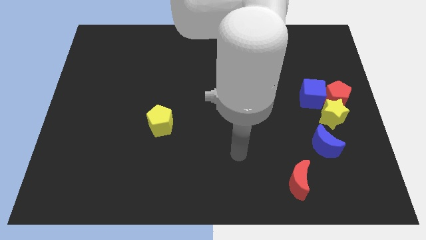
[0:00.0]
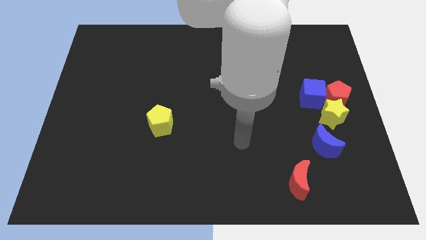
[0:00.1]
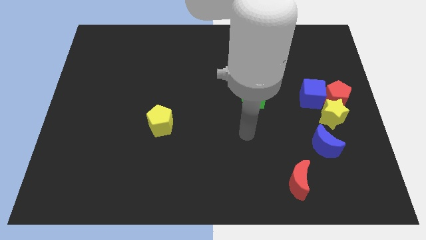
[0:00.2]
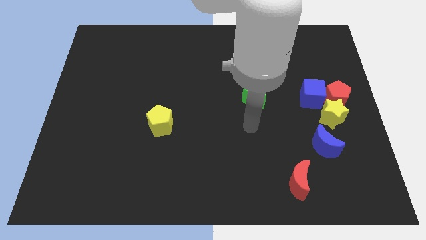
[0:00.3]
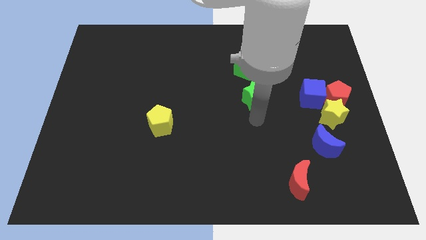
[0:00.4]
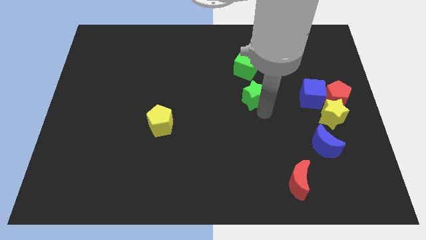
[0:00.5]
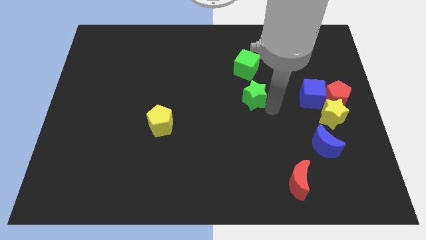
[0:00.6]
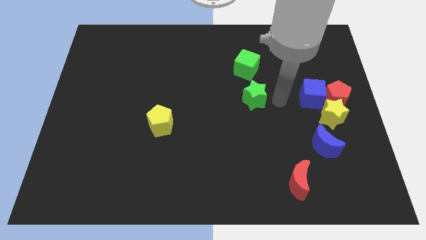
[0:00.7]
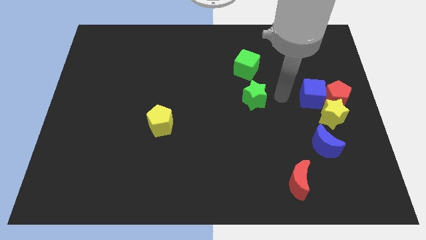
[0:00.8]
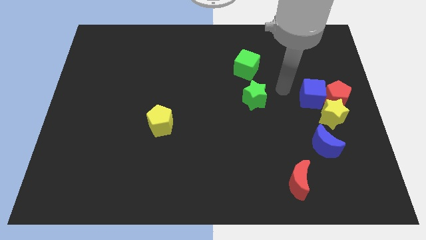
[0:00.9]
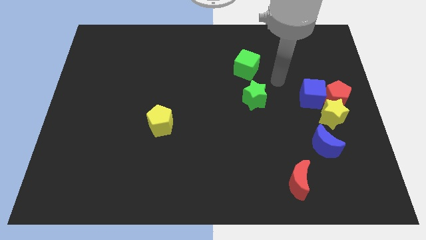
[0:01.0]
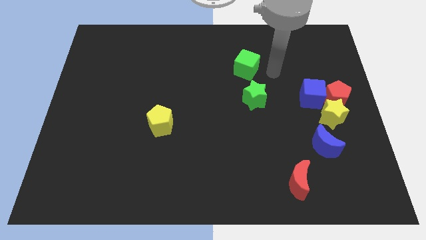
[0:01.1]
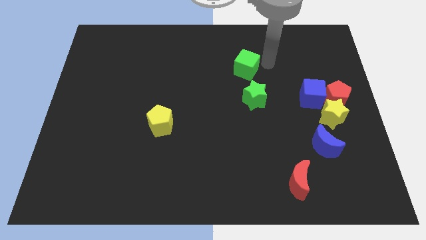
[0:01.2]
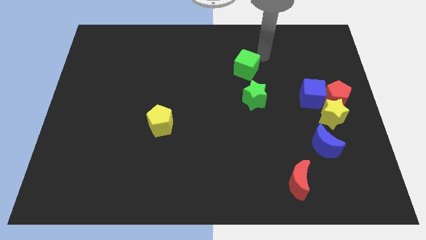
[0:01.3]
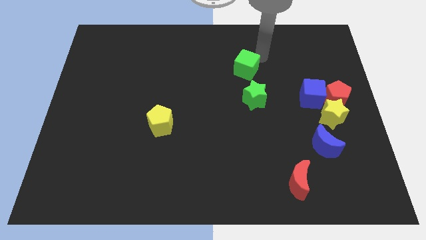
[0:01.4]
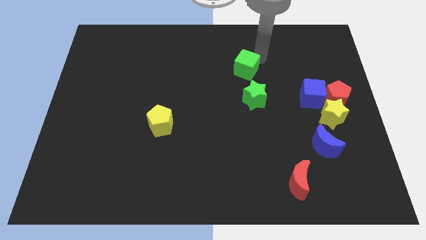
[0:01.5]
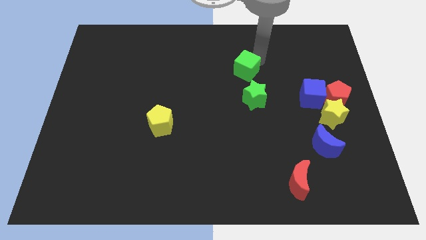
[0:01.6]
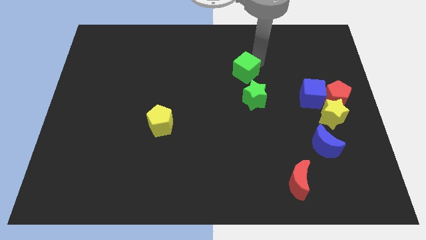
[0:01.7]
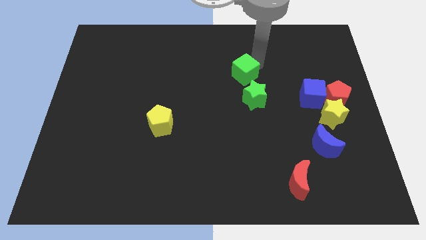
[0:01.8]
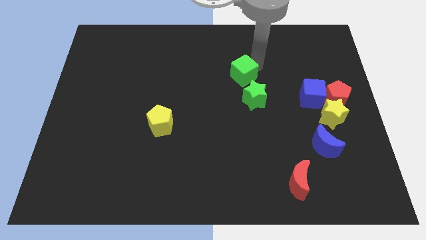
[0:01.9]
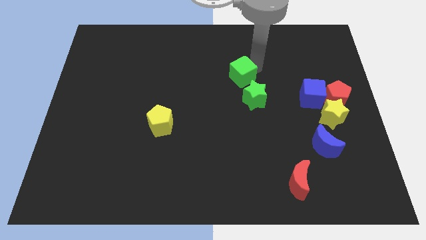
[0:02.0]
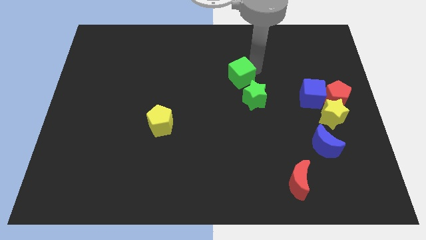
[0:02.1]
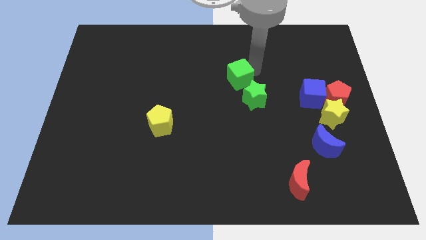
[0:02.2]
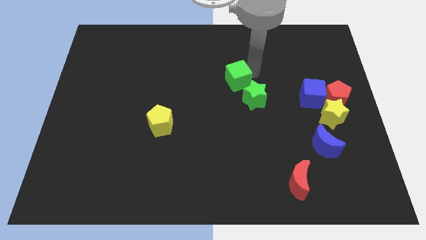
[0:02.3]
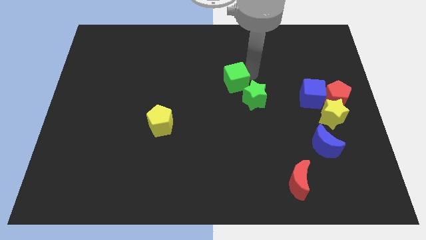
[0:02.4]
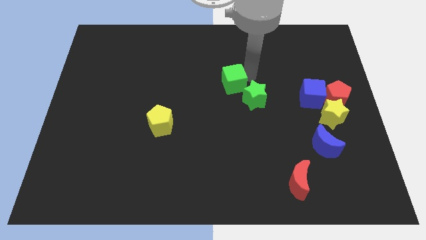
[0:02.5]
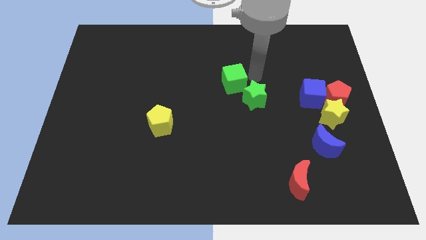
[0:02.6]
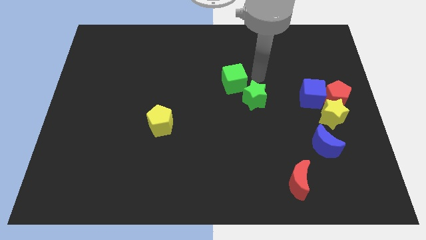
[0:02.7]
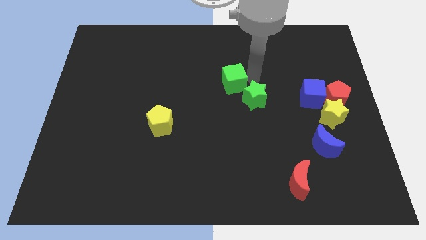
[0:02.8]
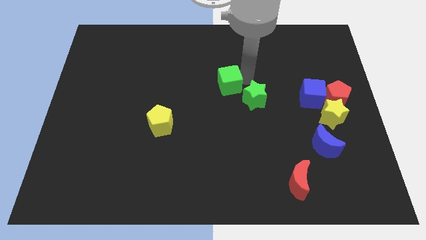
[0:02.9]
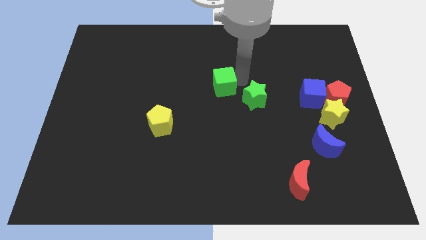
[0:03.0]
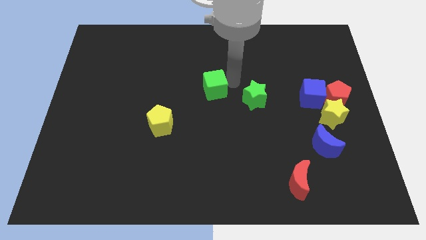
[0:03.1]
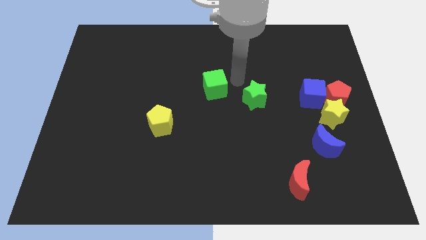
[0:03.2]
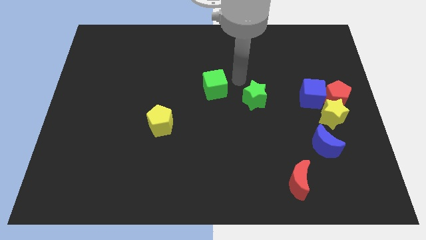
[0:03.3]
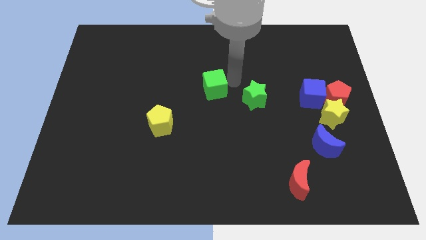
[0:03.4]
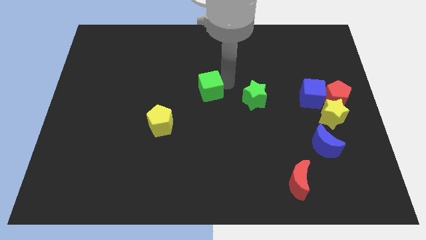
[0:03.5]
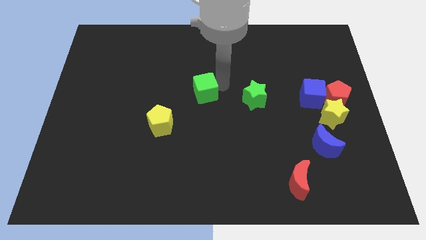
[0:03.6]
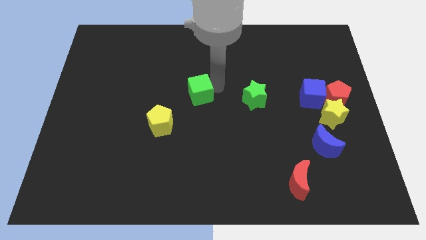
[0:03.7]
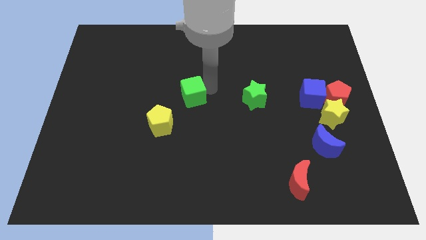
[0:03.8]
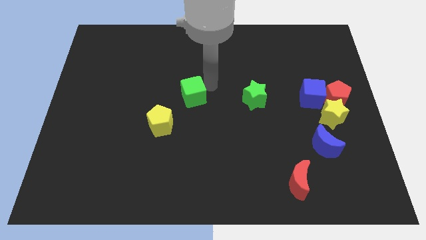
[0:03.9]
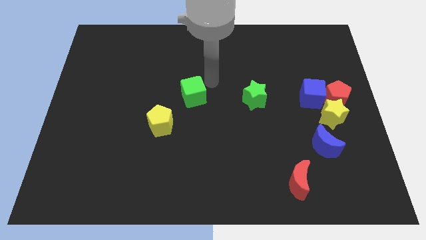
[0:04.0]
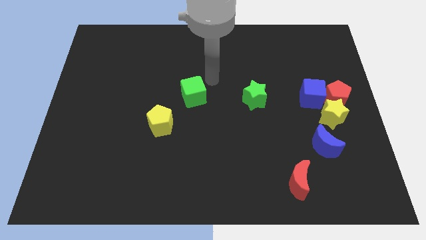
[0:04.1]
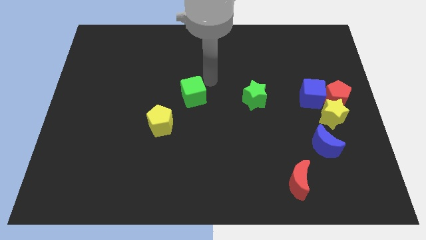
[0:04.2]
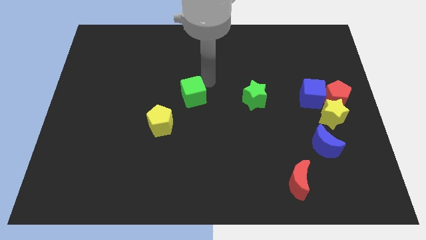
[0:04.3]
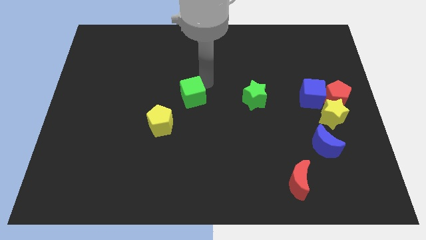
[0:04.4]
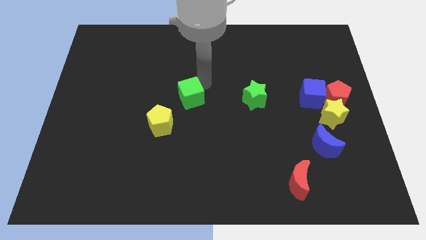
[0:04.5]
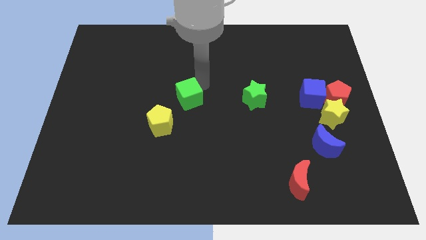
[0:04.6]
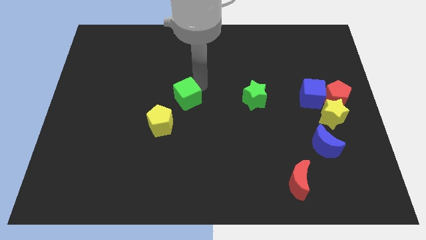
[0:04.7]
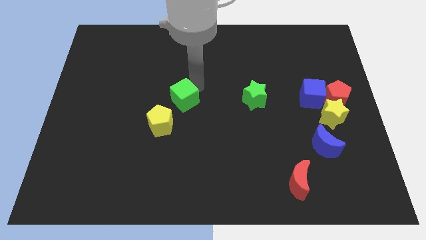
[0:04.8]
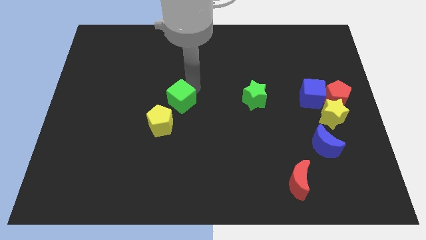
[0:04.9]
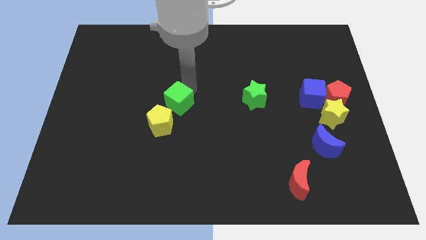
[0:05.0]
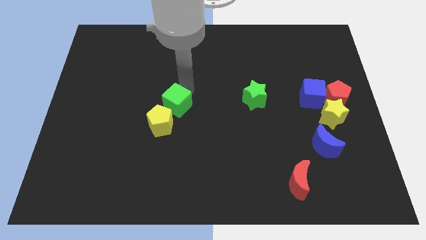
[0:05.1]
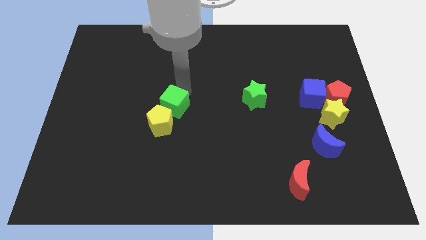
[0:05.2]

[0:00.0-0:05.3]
push the green cube to the yellow pentagon

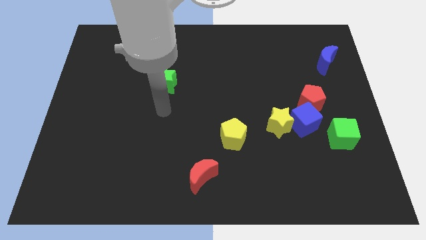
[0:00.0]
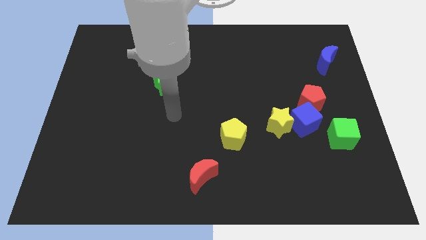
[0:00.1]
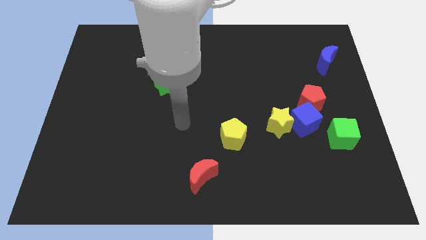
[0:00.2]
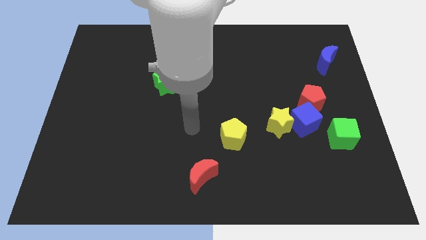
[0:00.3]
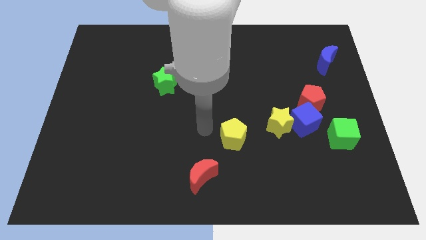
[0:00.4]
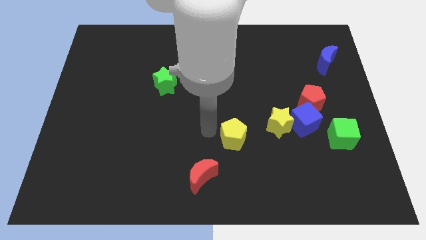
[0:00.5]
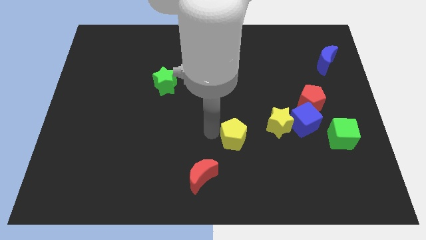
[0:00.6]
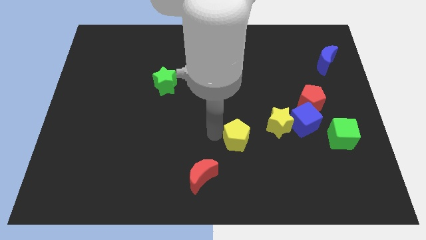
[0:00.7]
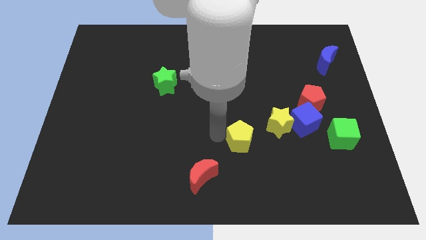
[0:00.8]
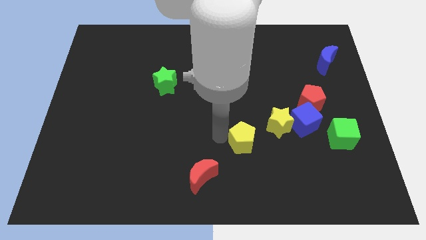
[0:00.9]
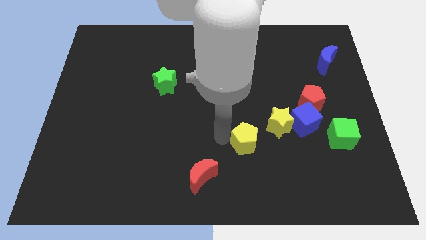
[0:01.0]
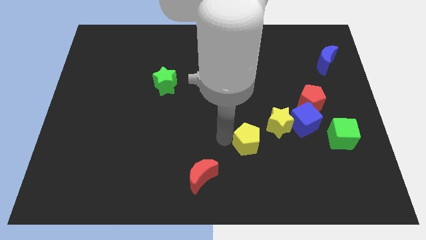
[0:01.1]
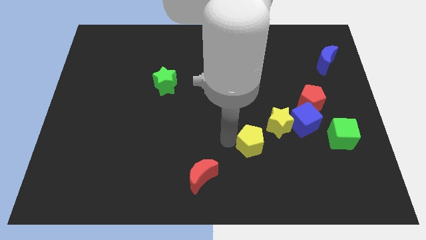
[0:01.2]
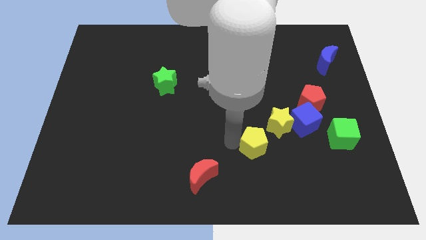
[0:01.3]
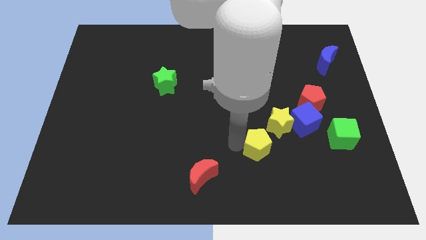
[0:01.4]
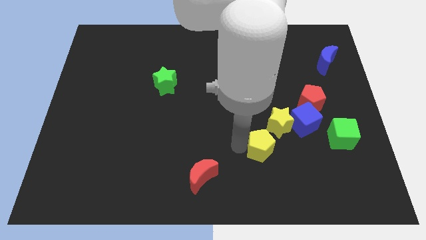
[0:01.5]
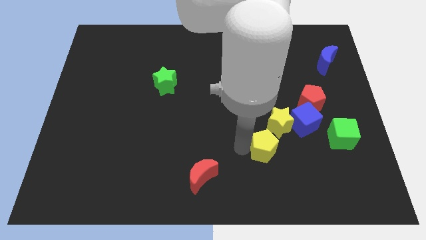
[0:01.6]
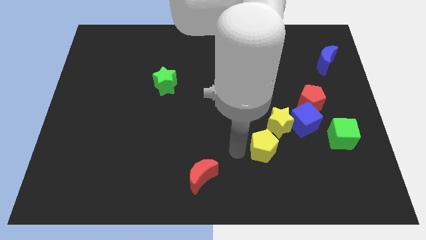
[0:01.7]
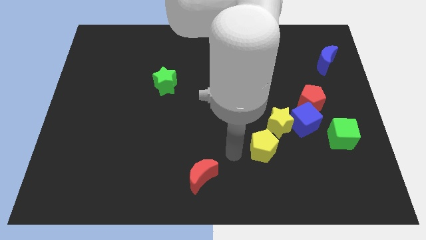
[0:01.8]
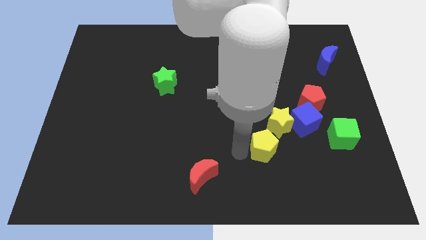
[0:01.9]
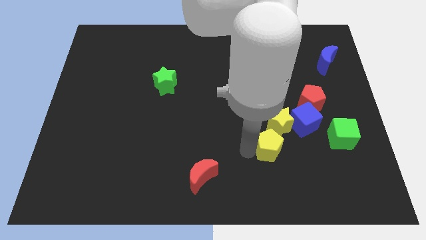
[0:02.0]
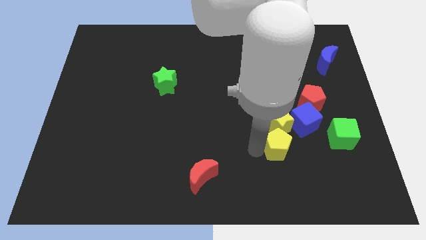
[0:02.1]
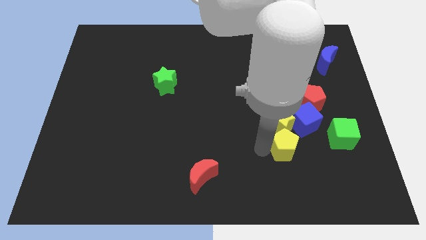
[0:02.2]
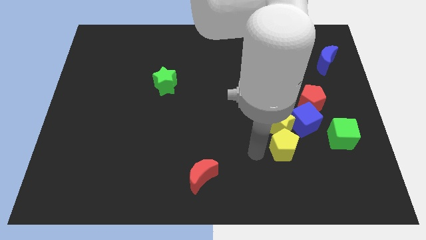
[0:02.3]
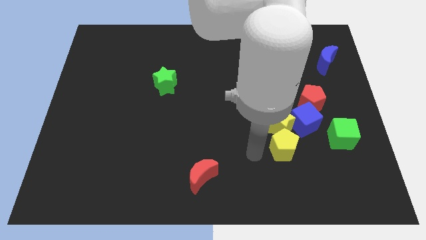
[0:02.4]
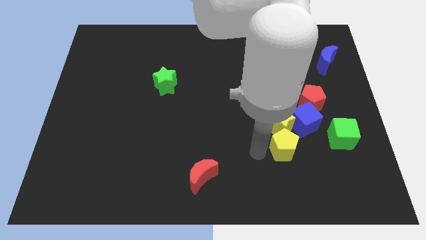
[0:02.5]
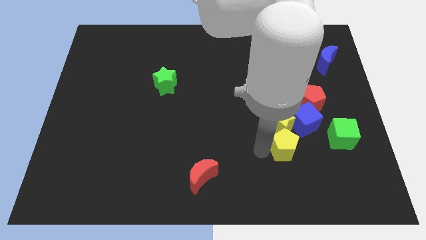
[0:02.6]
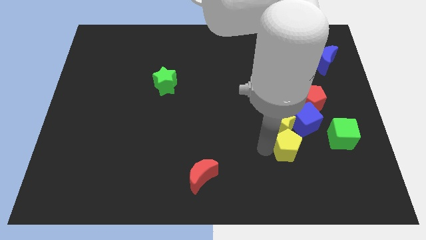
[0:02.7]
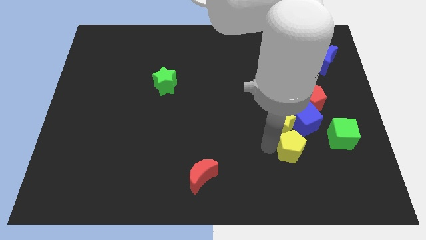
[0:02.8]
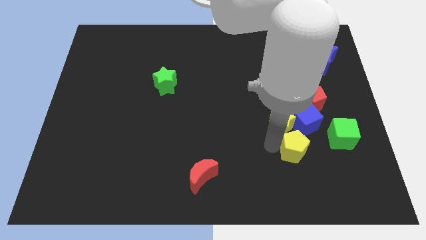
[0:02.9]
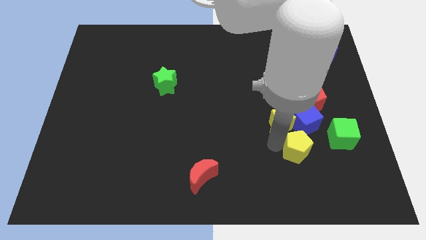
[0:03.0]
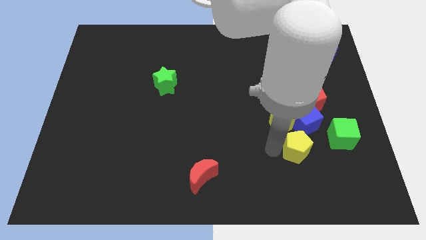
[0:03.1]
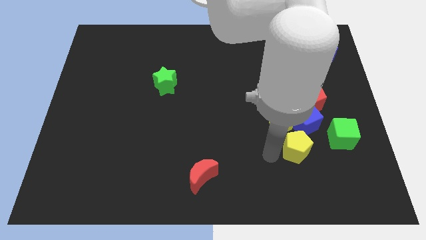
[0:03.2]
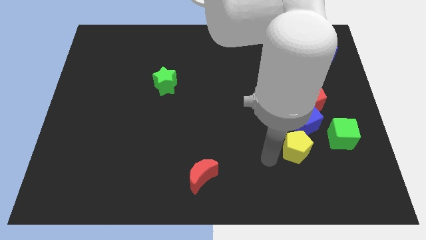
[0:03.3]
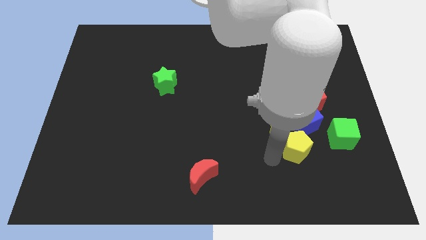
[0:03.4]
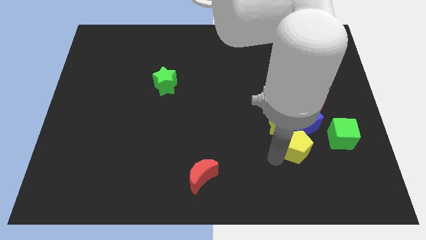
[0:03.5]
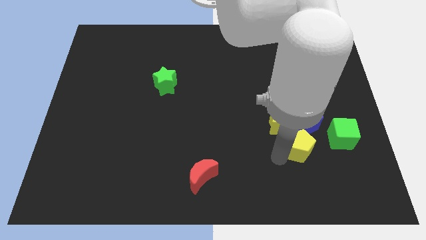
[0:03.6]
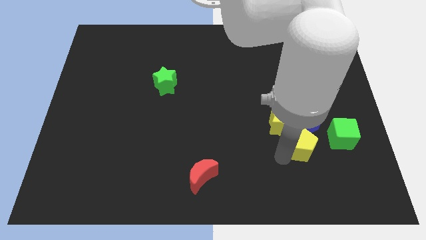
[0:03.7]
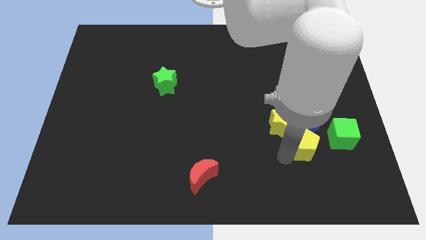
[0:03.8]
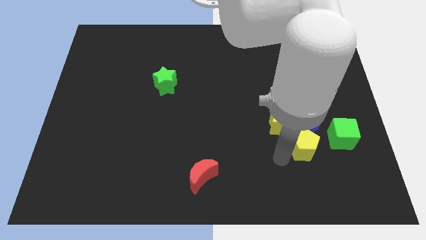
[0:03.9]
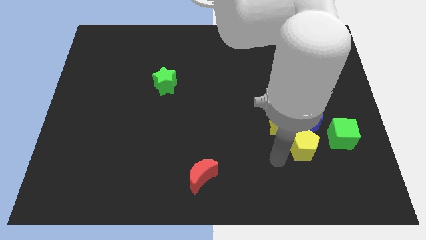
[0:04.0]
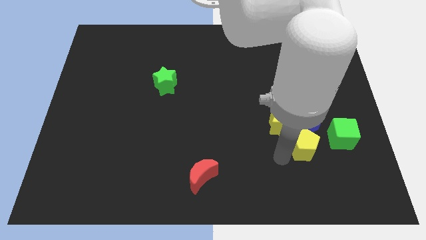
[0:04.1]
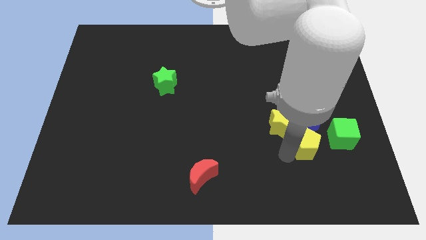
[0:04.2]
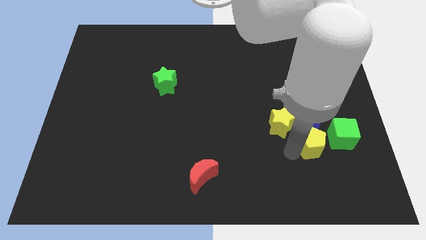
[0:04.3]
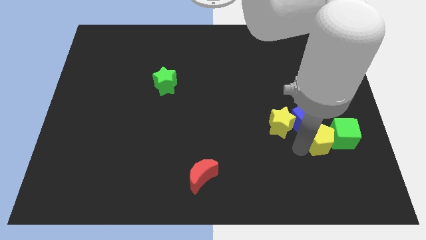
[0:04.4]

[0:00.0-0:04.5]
push the yellow pentagon next to the green cube
